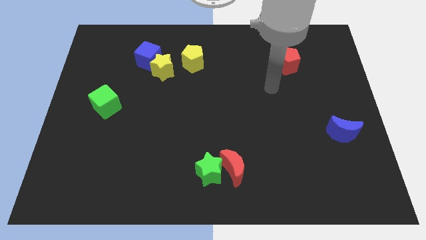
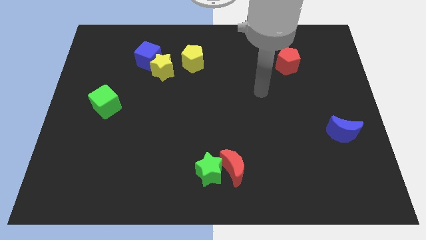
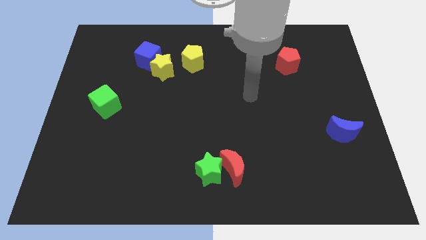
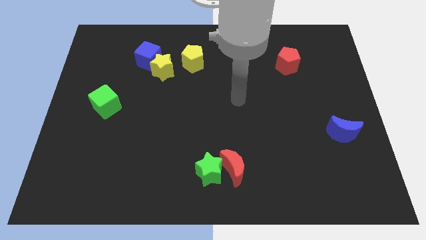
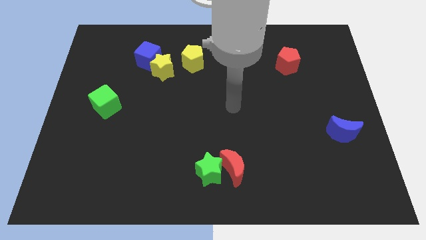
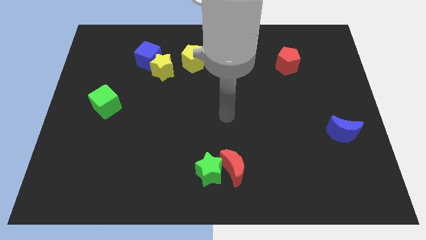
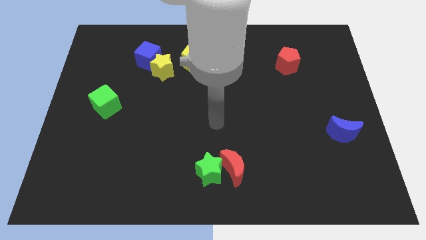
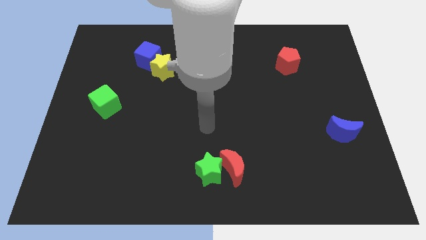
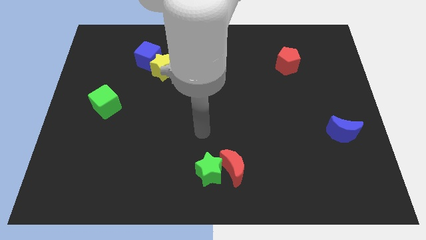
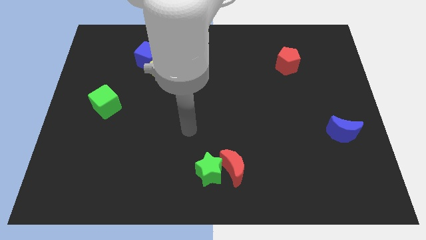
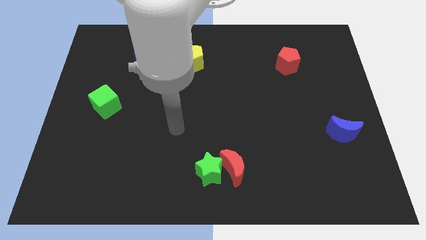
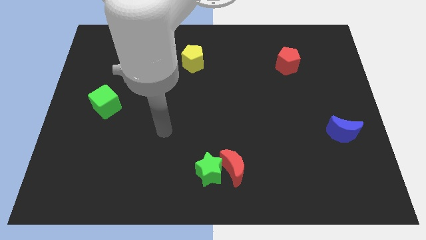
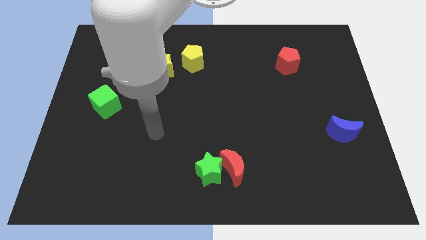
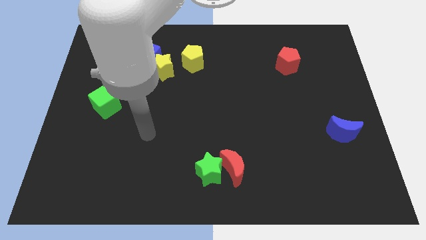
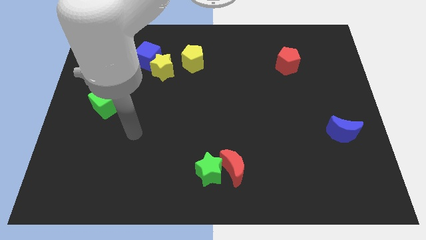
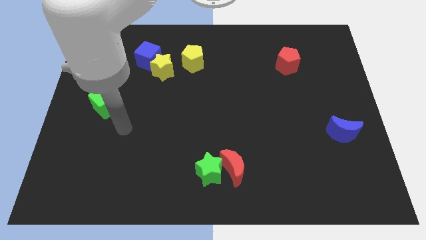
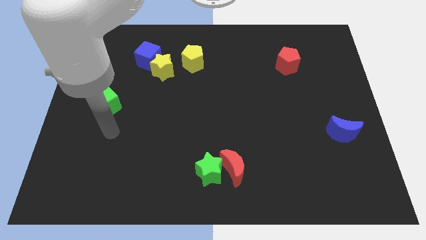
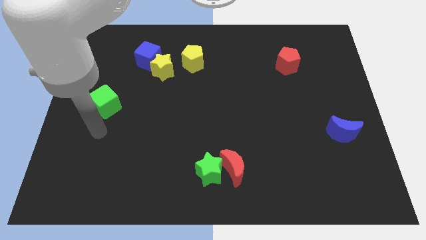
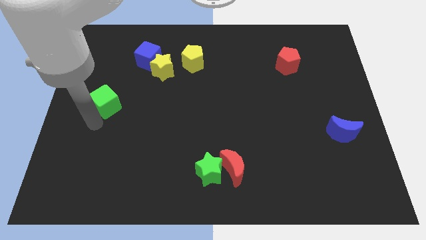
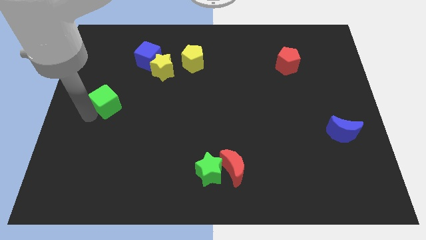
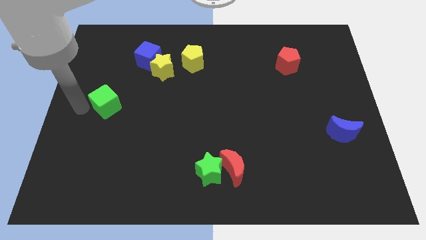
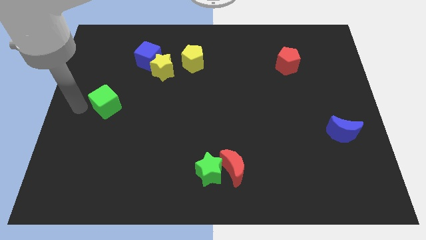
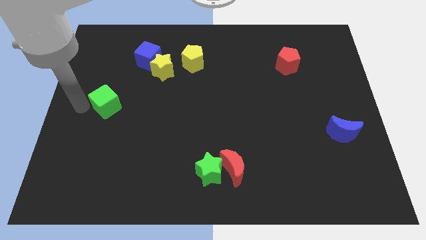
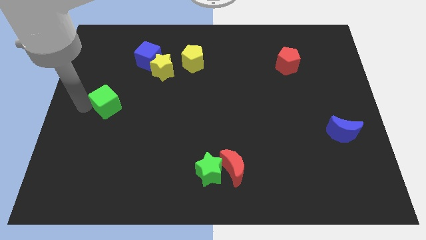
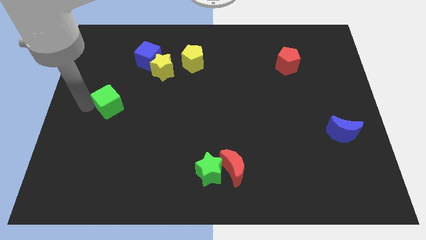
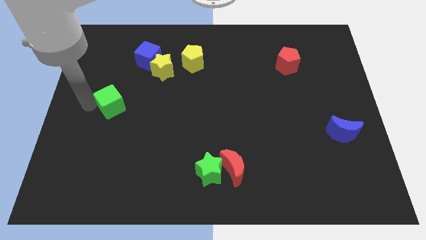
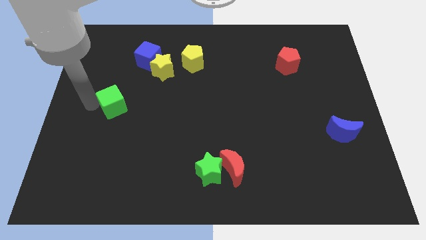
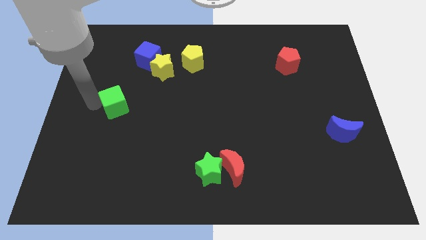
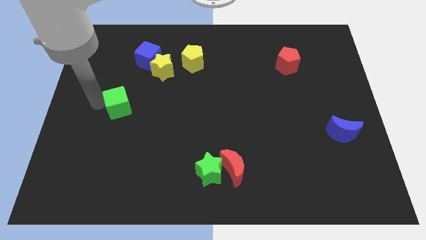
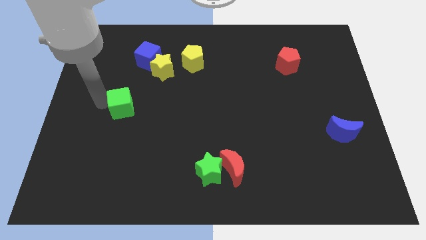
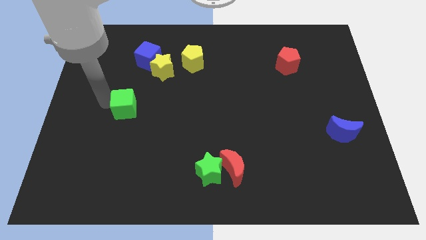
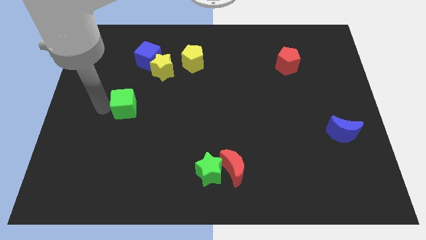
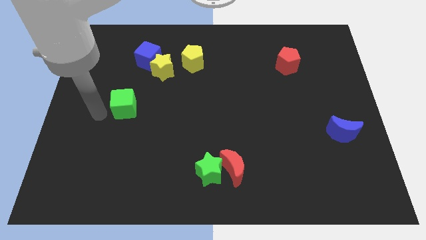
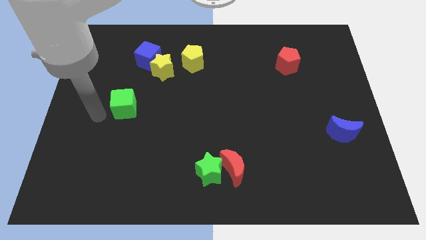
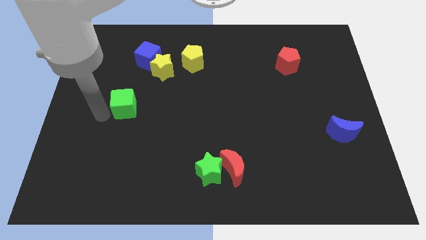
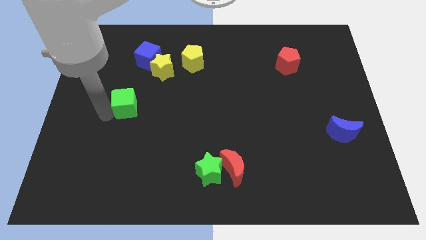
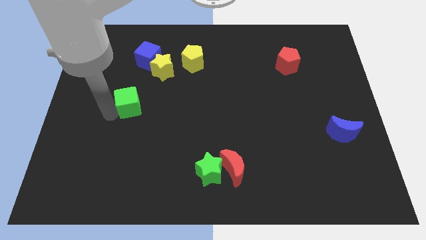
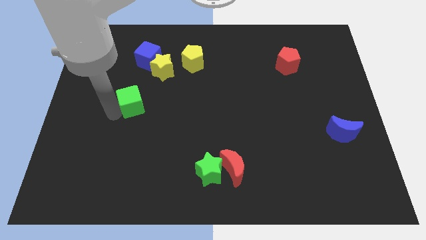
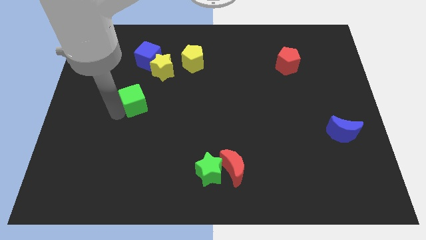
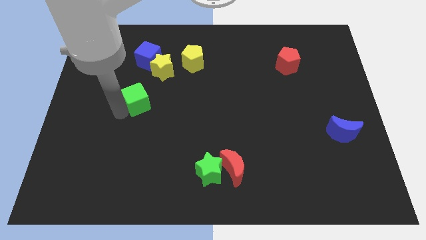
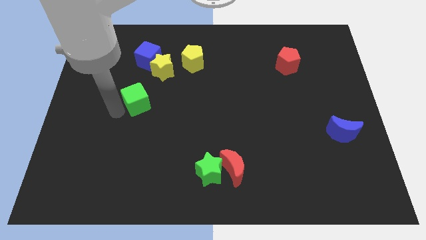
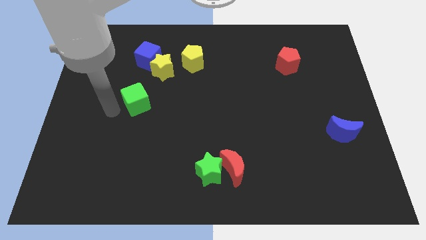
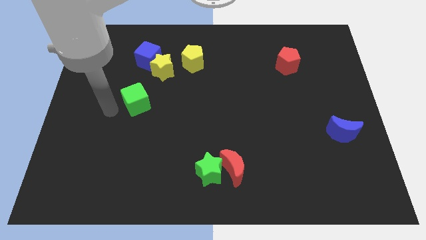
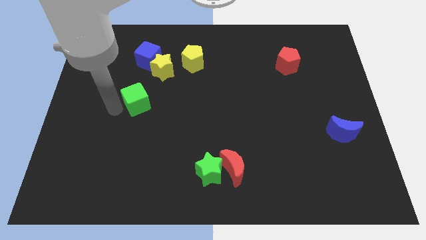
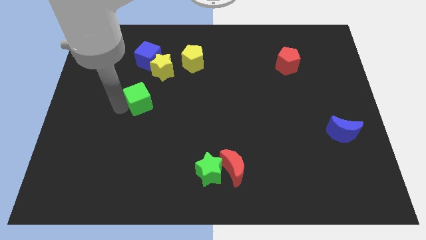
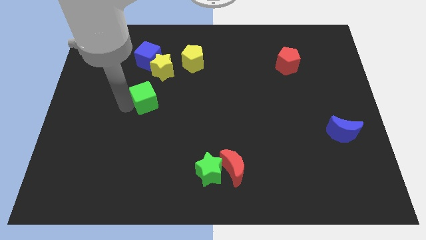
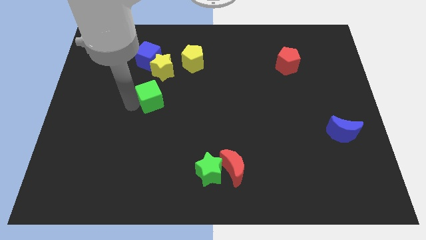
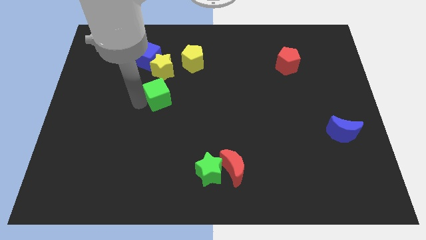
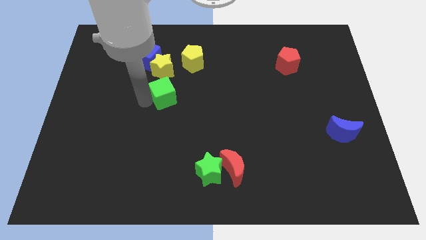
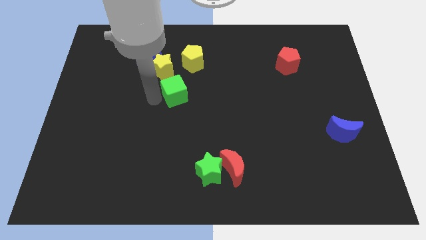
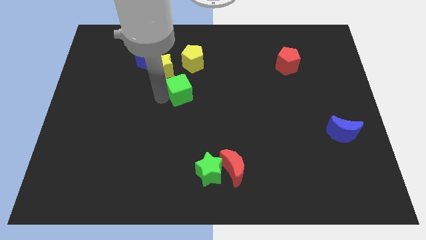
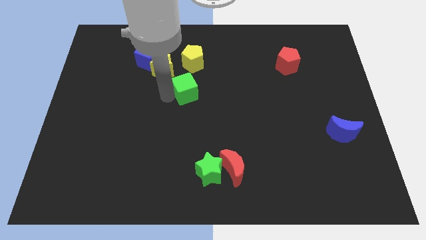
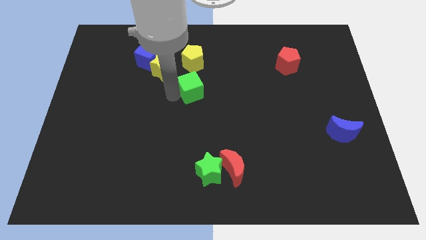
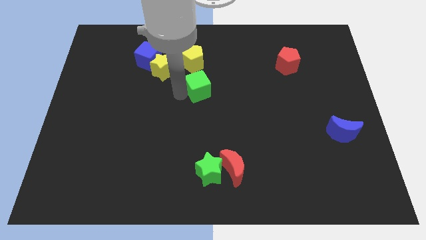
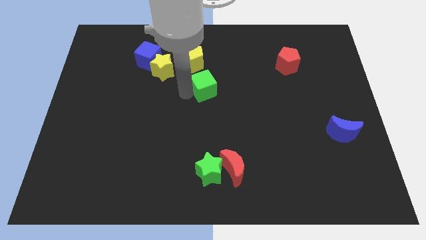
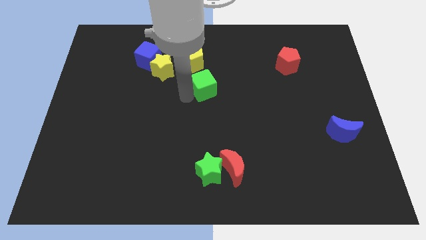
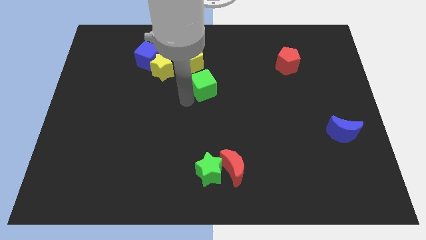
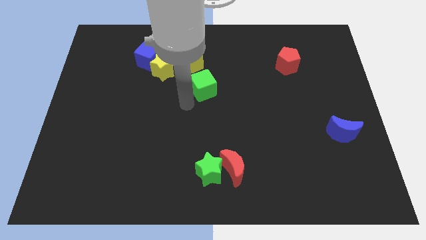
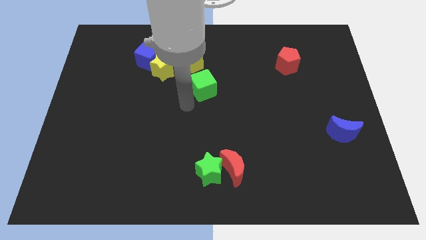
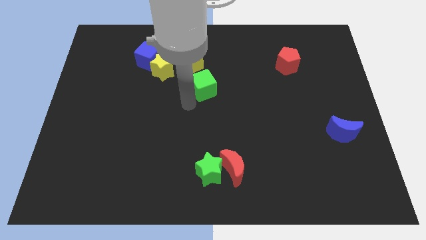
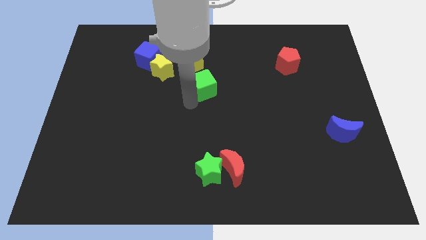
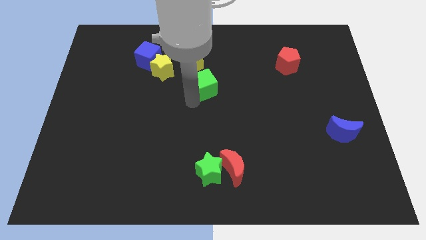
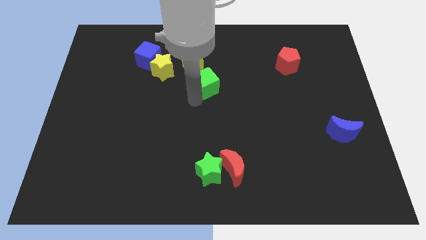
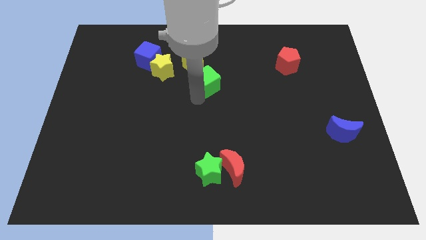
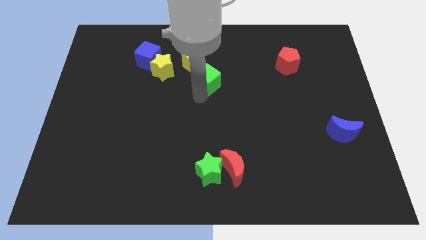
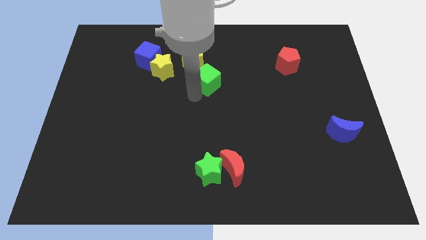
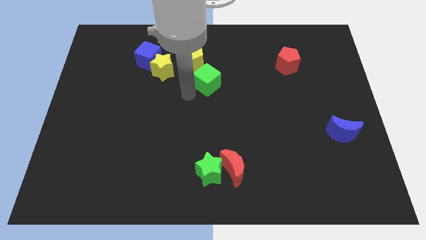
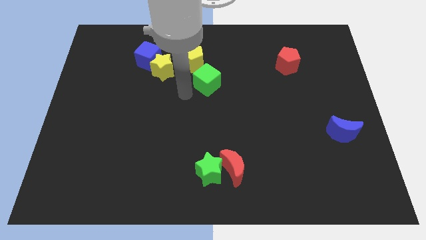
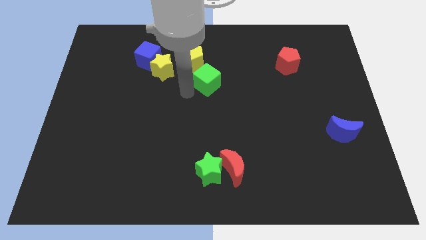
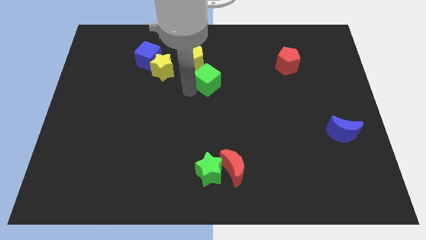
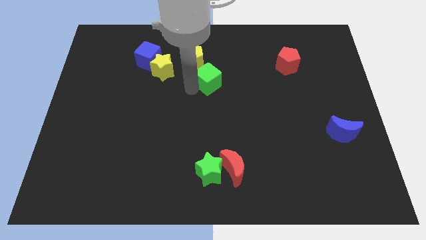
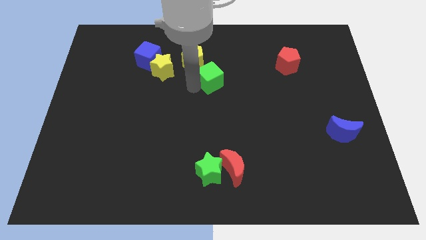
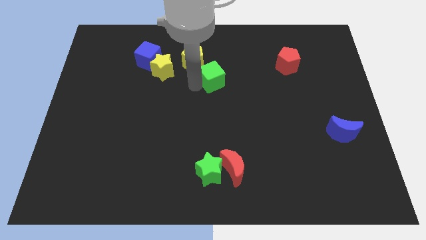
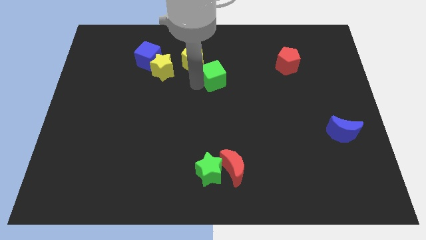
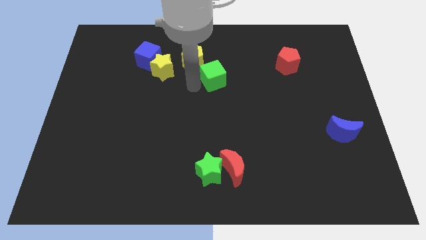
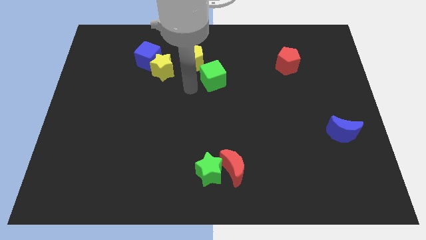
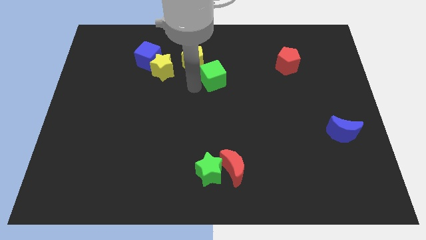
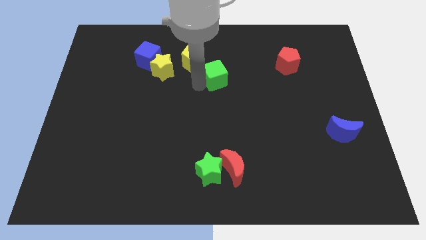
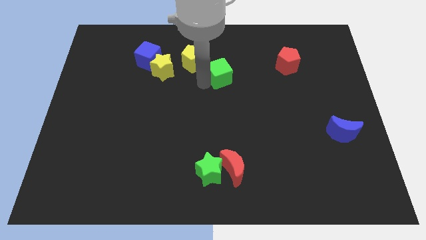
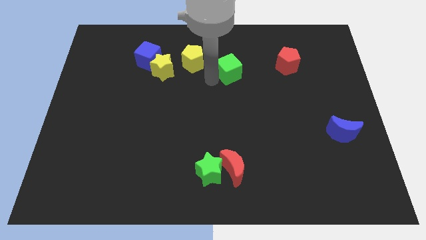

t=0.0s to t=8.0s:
slide the green cube left of the red pentagon
